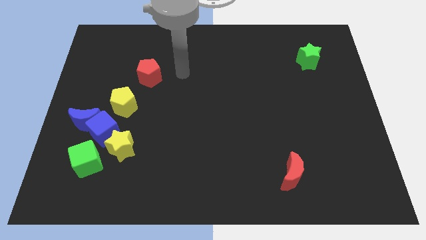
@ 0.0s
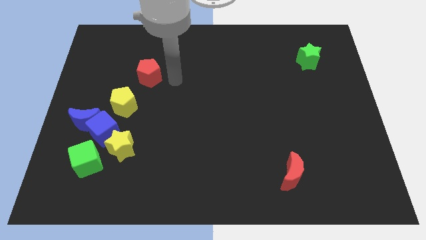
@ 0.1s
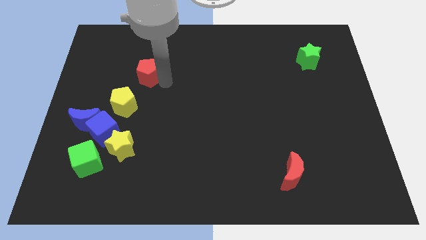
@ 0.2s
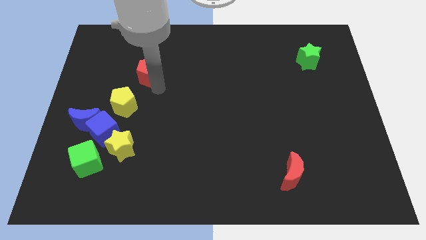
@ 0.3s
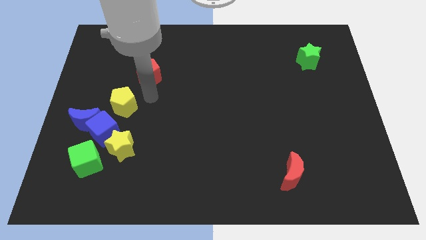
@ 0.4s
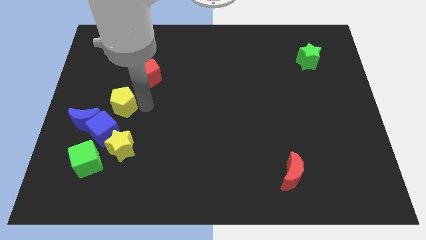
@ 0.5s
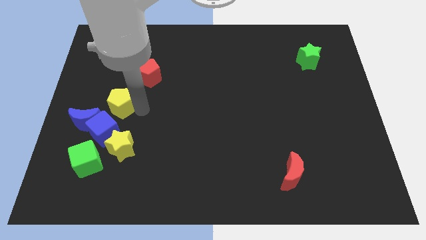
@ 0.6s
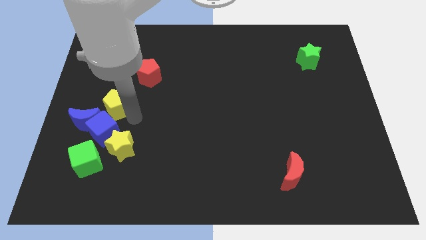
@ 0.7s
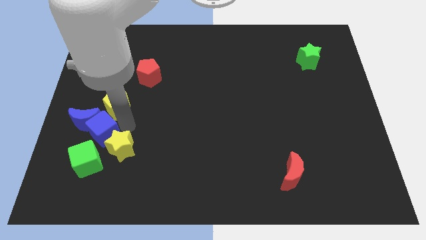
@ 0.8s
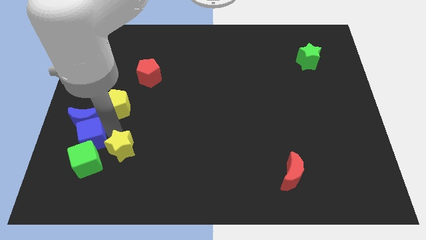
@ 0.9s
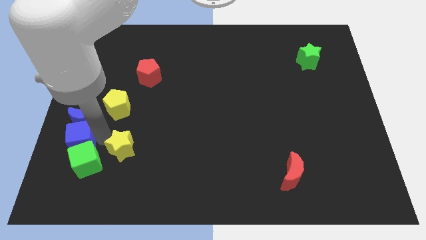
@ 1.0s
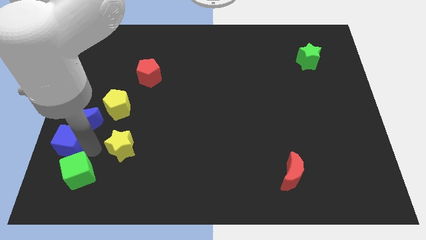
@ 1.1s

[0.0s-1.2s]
separate the yellow star from the blue cube and green cube

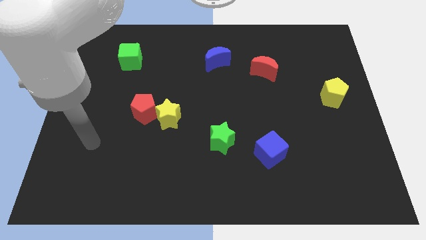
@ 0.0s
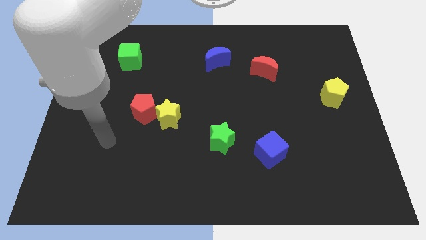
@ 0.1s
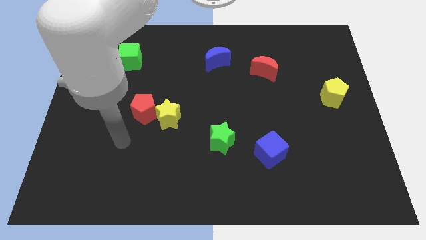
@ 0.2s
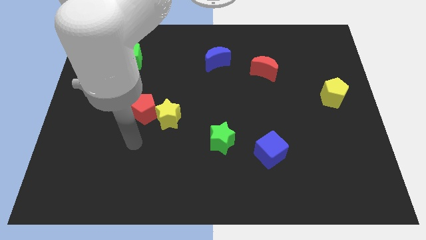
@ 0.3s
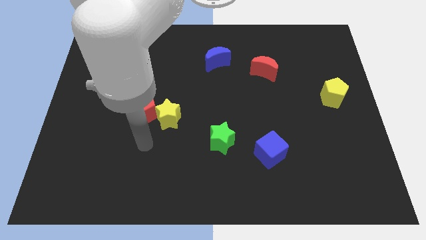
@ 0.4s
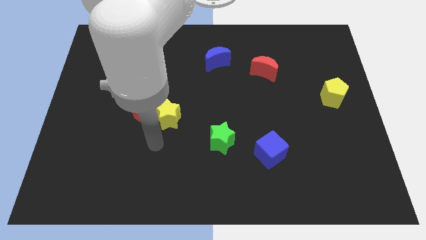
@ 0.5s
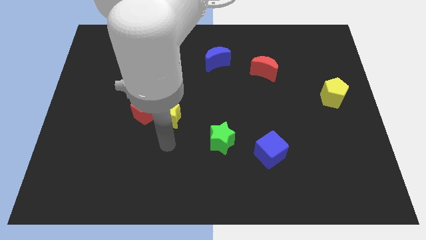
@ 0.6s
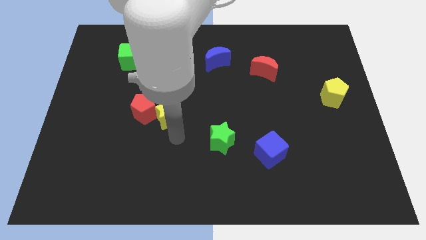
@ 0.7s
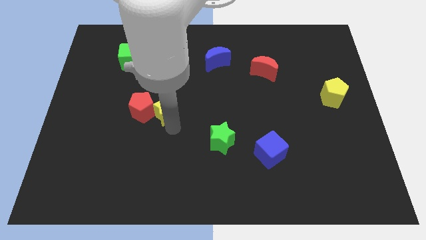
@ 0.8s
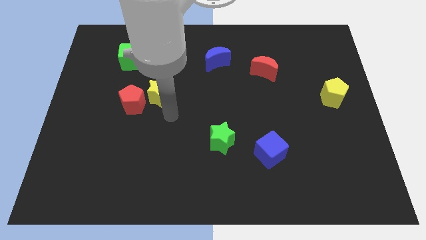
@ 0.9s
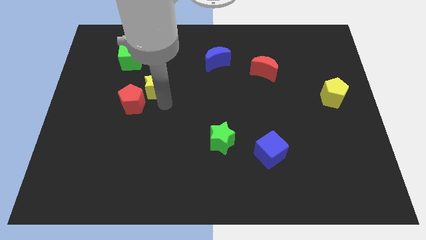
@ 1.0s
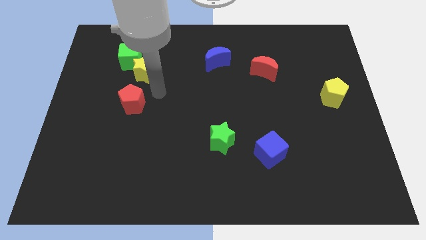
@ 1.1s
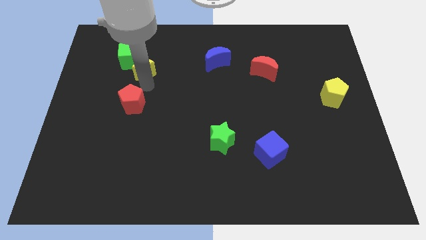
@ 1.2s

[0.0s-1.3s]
pull the red pentagon apart from the yellow star

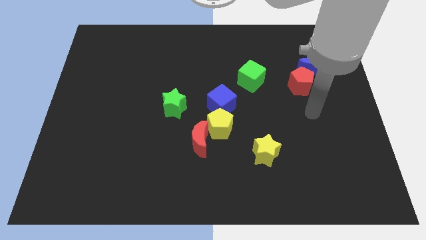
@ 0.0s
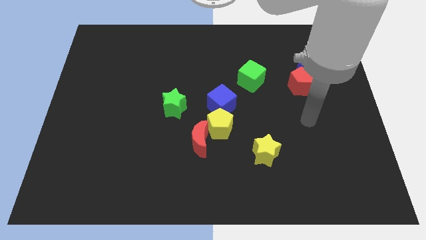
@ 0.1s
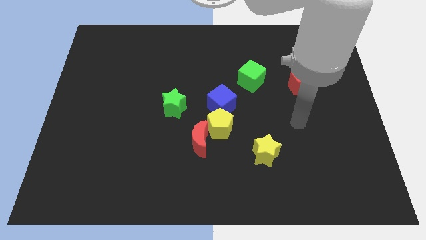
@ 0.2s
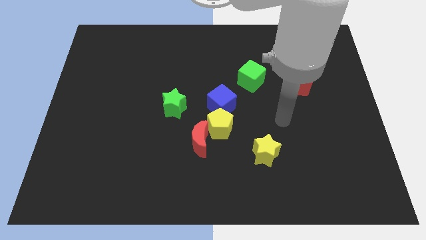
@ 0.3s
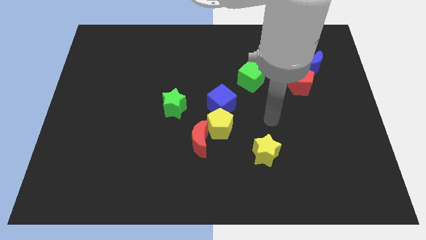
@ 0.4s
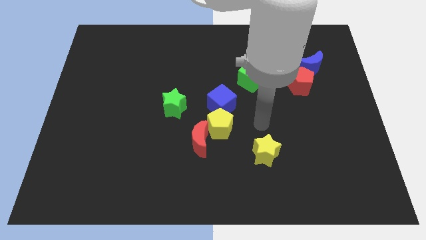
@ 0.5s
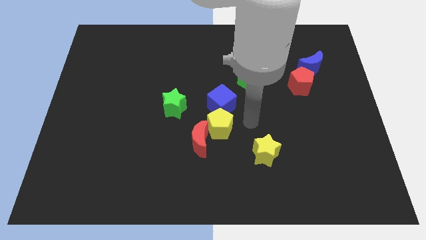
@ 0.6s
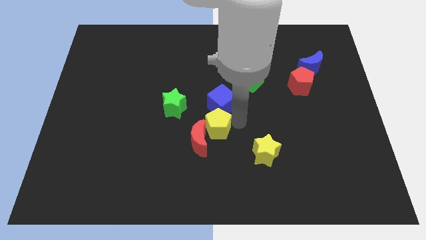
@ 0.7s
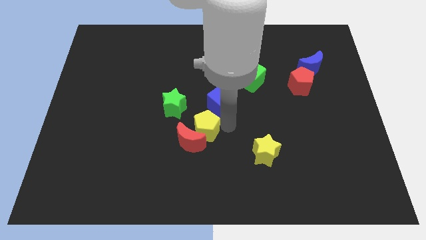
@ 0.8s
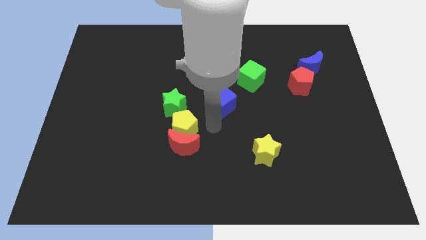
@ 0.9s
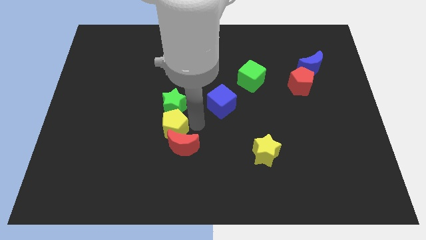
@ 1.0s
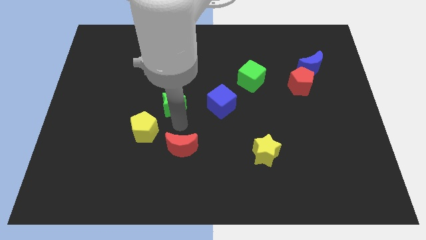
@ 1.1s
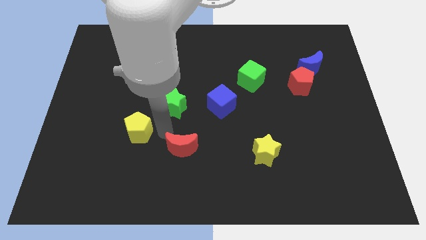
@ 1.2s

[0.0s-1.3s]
move the red moon away from the yellow pentagon

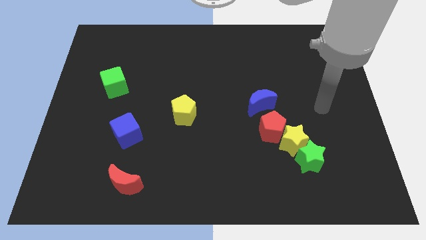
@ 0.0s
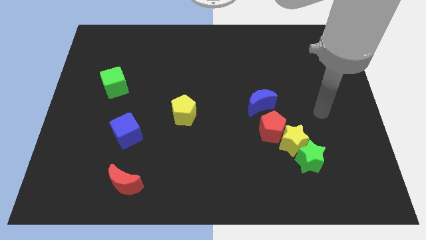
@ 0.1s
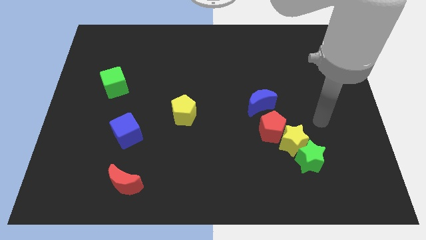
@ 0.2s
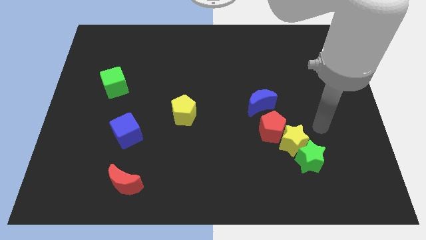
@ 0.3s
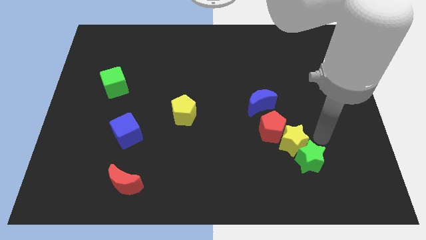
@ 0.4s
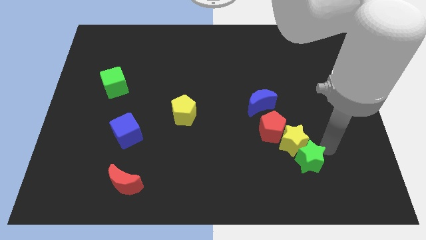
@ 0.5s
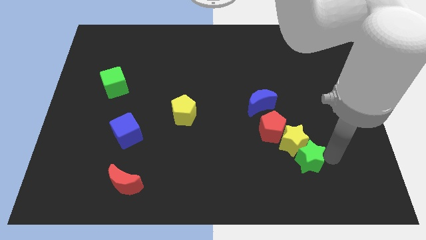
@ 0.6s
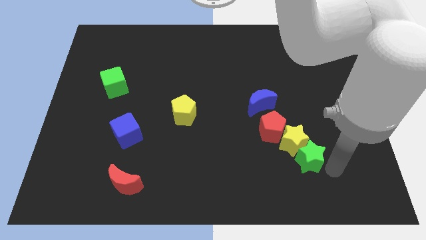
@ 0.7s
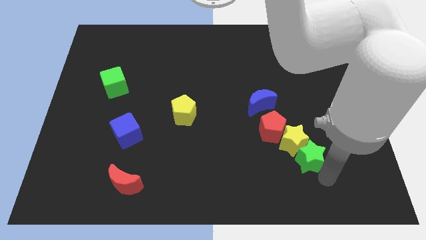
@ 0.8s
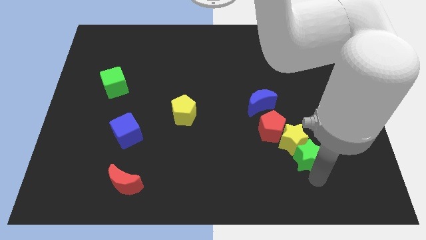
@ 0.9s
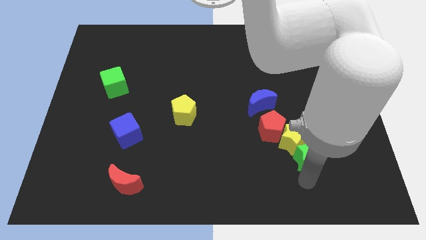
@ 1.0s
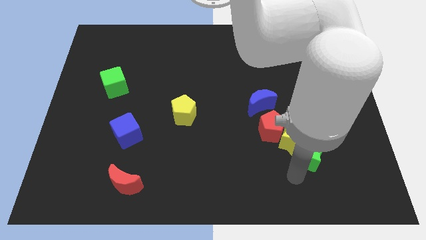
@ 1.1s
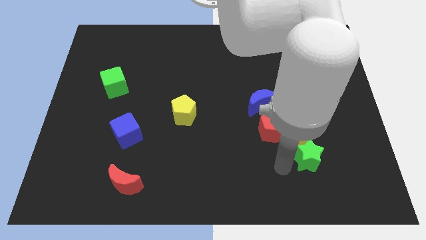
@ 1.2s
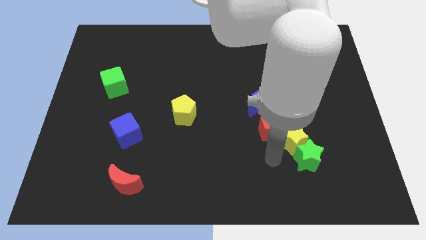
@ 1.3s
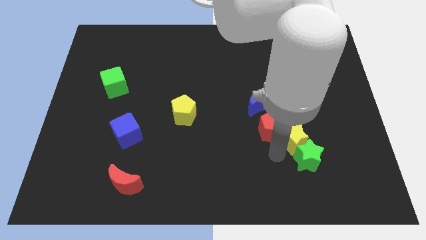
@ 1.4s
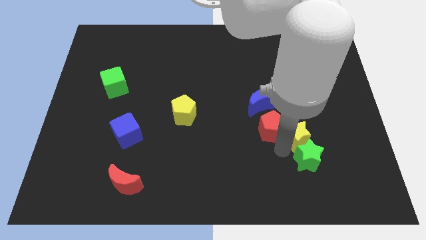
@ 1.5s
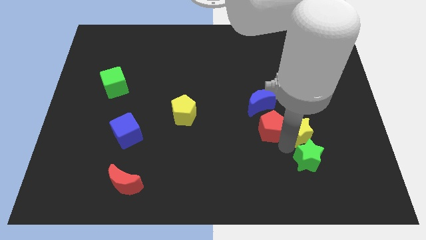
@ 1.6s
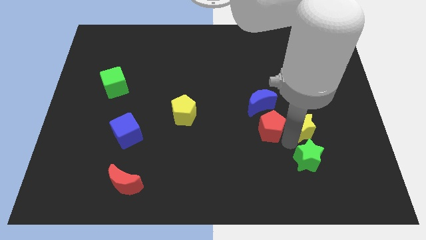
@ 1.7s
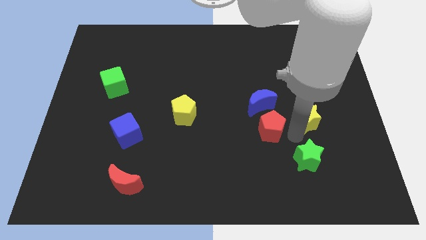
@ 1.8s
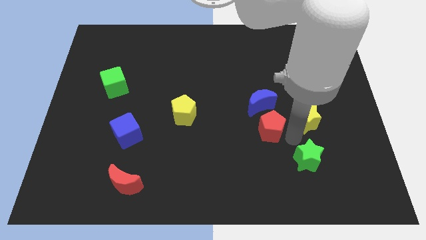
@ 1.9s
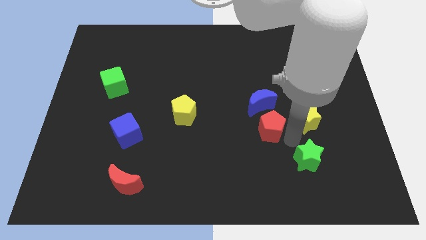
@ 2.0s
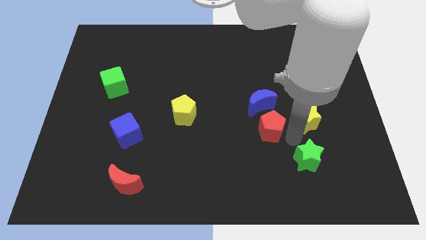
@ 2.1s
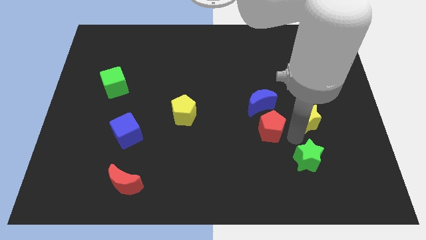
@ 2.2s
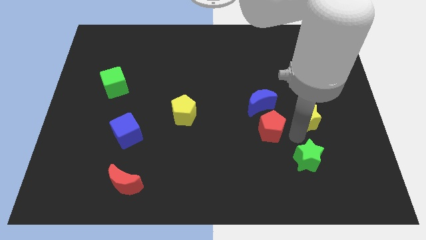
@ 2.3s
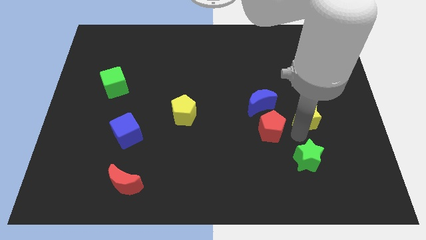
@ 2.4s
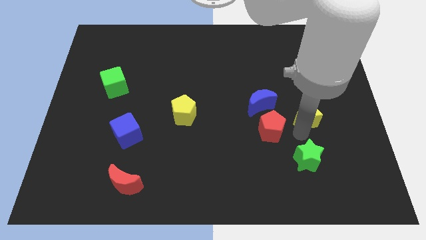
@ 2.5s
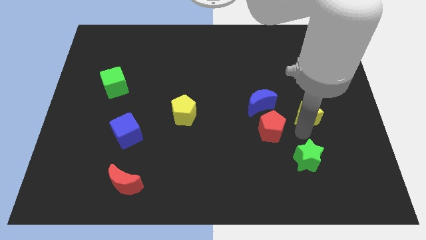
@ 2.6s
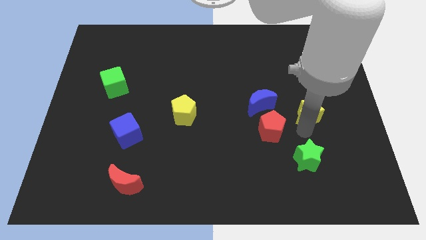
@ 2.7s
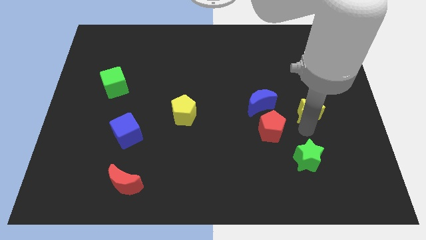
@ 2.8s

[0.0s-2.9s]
separate the yellow star from the red pentagon and green star

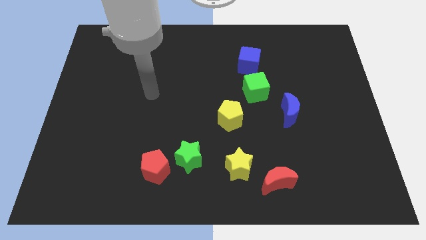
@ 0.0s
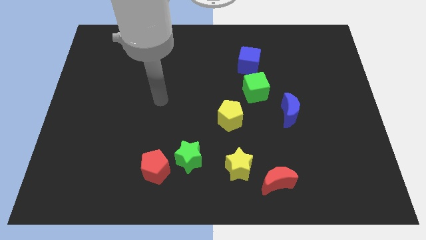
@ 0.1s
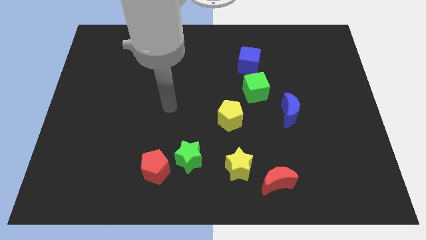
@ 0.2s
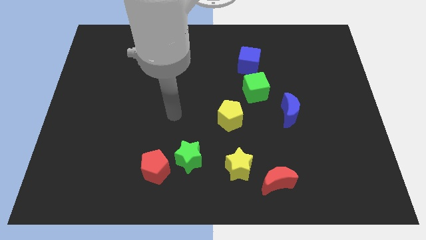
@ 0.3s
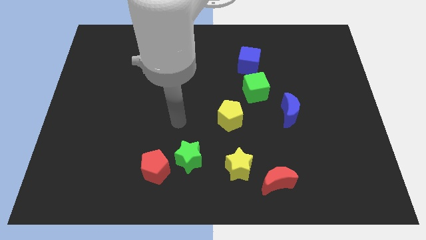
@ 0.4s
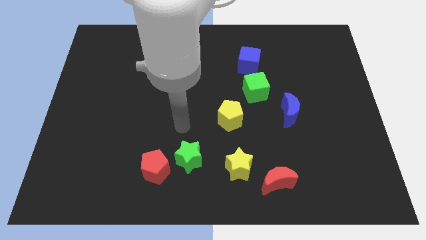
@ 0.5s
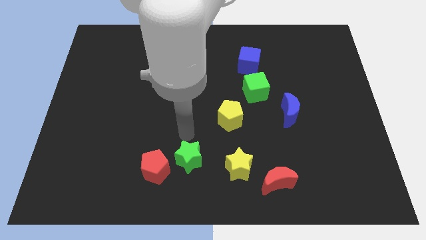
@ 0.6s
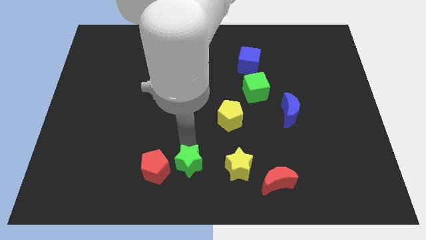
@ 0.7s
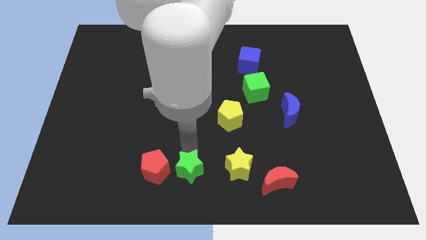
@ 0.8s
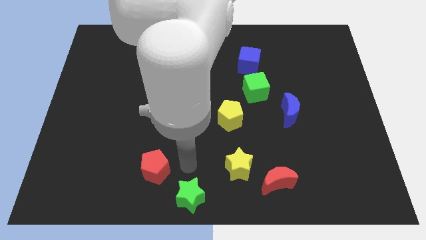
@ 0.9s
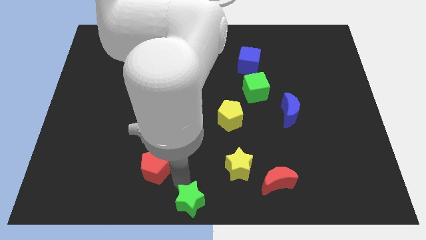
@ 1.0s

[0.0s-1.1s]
pull the red pentagon apart from the green star

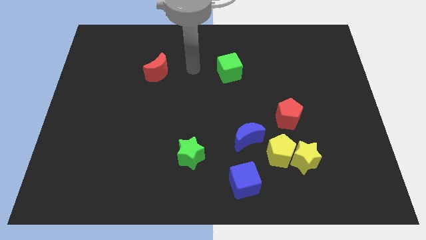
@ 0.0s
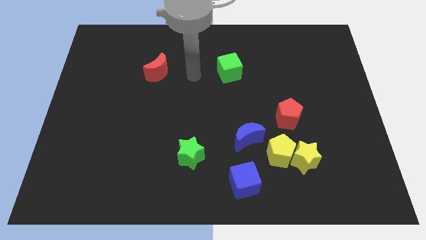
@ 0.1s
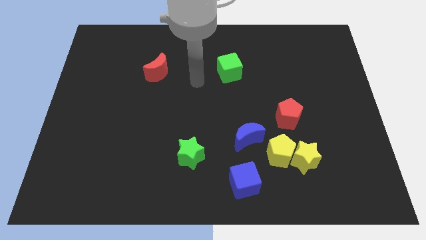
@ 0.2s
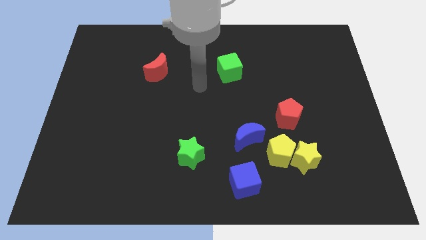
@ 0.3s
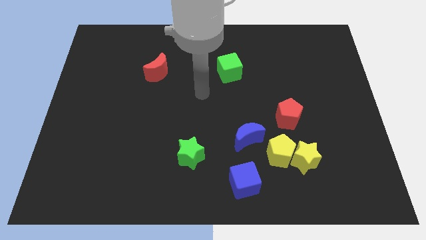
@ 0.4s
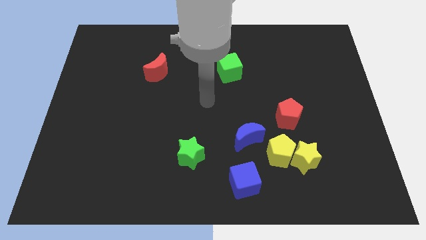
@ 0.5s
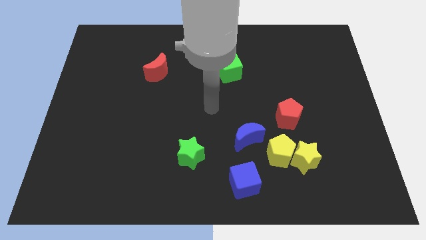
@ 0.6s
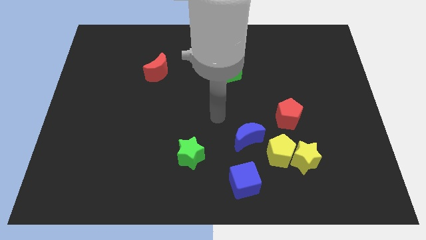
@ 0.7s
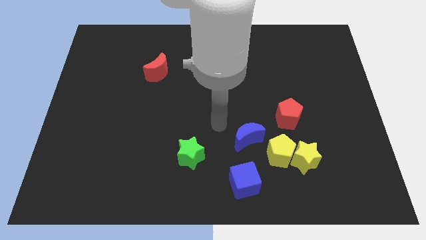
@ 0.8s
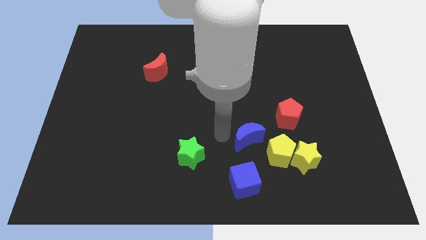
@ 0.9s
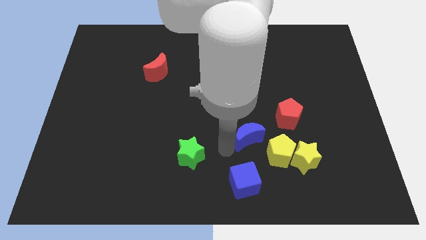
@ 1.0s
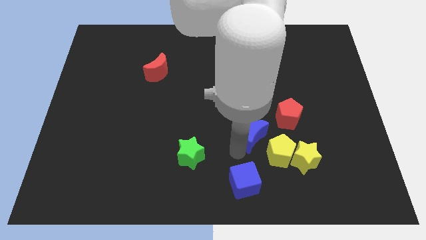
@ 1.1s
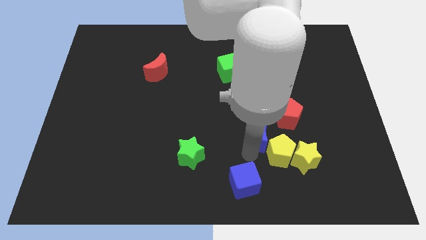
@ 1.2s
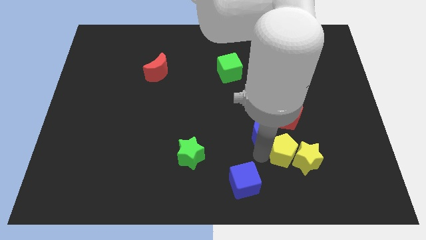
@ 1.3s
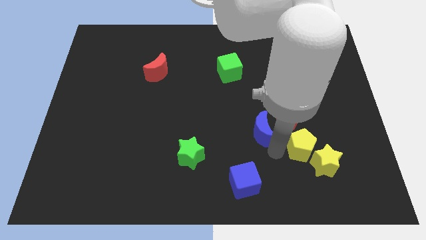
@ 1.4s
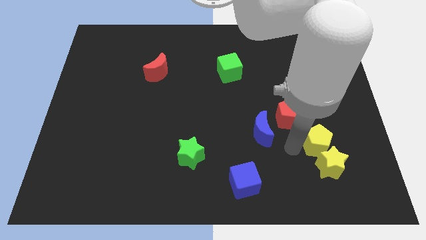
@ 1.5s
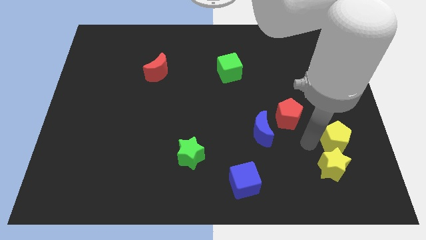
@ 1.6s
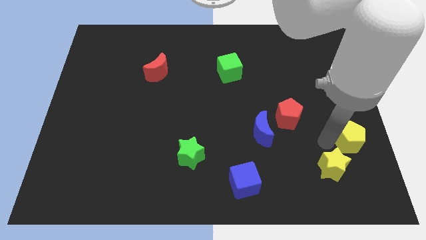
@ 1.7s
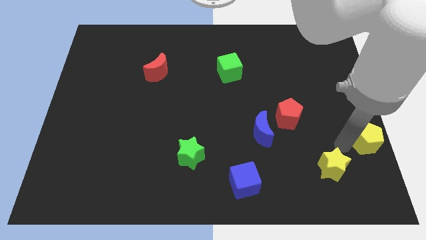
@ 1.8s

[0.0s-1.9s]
move the yellow star away from the yellow pentagon
